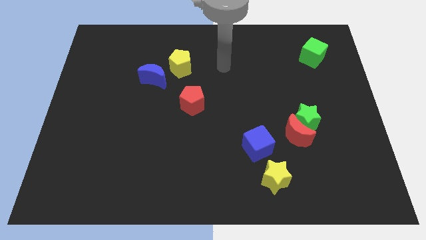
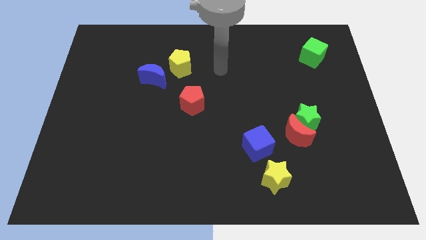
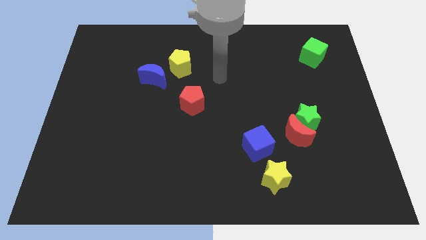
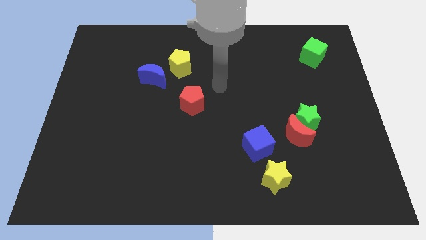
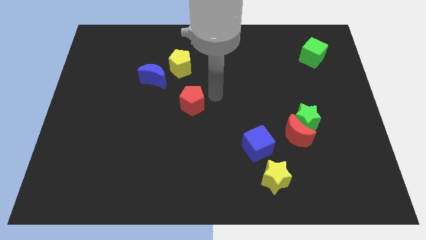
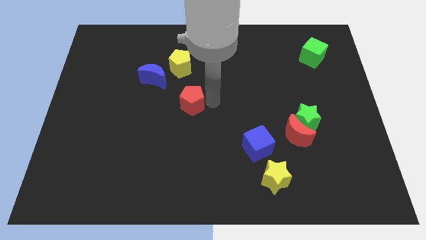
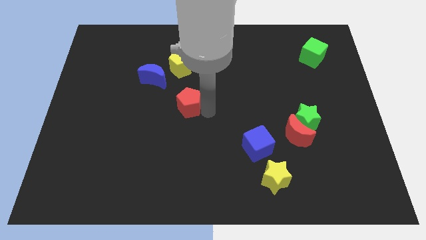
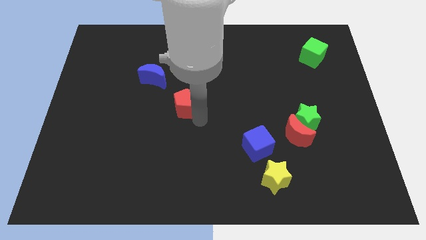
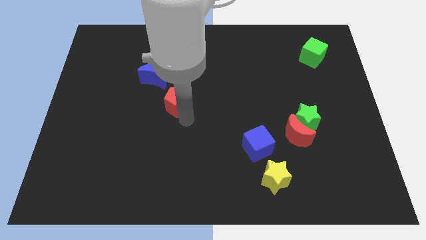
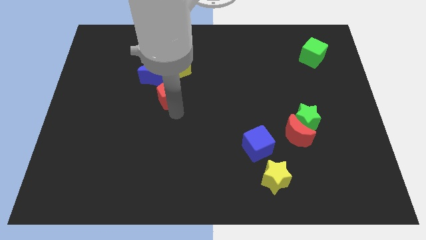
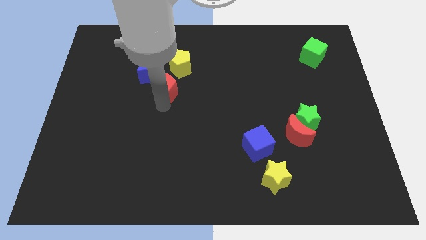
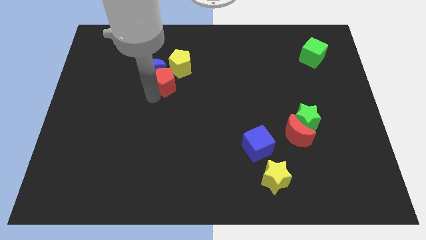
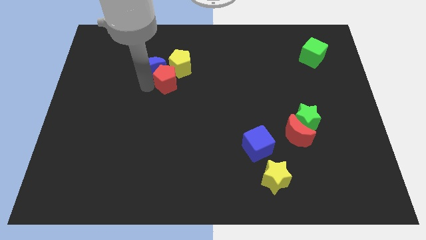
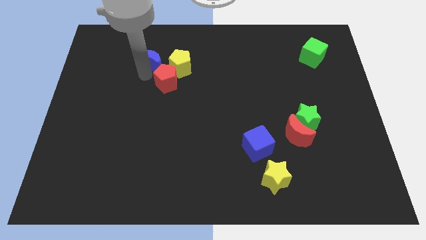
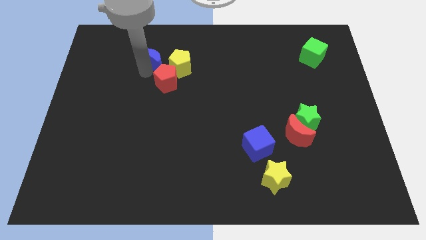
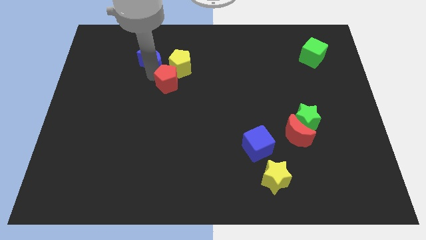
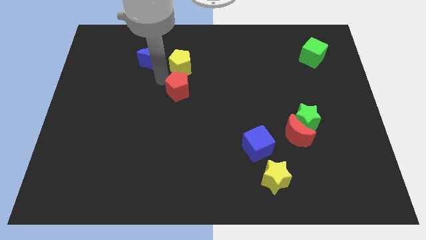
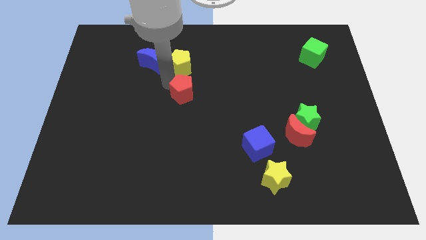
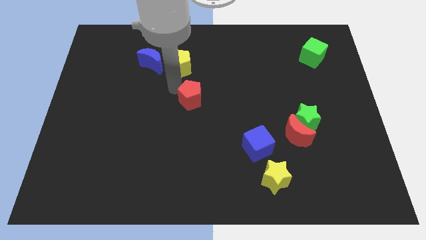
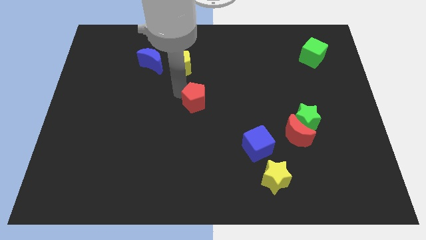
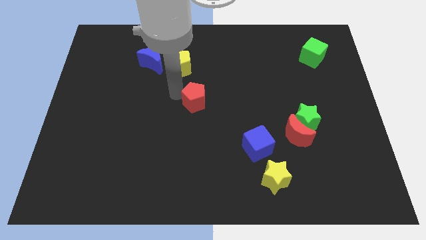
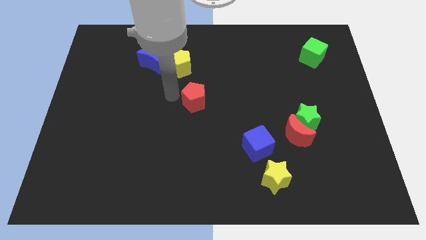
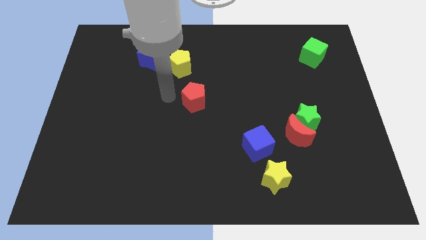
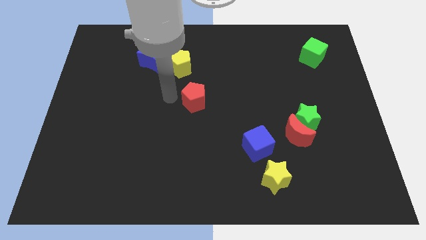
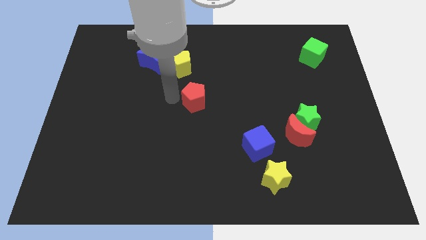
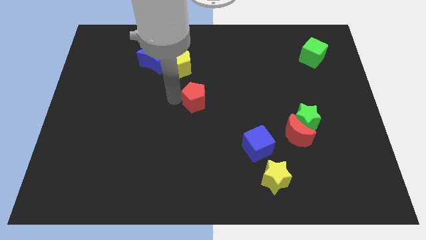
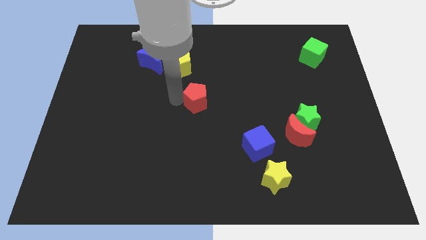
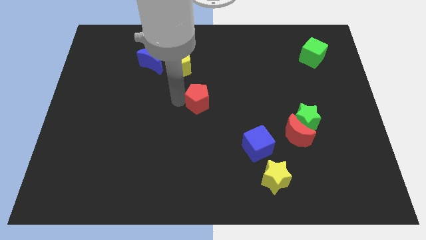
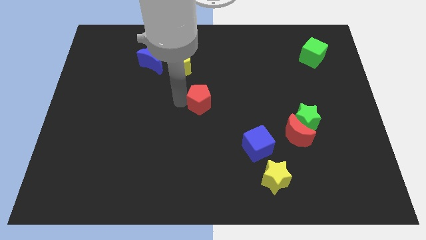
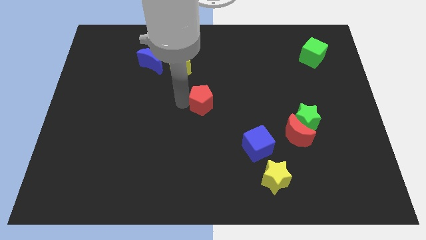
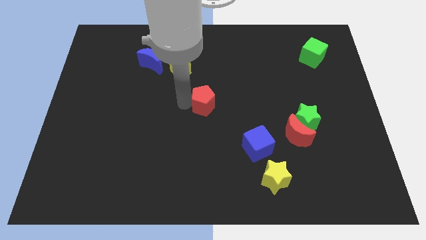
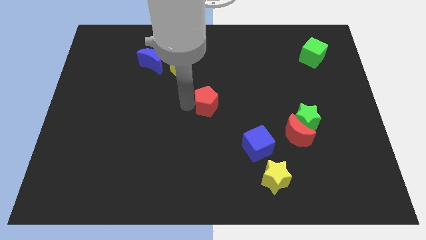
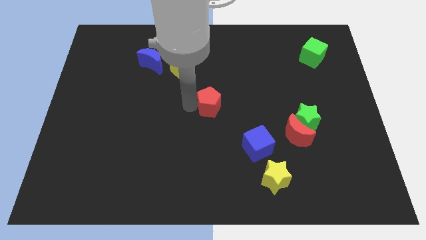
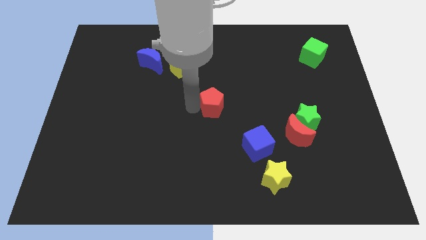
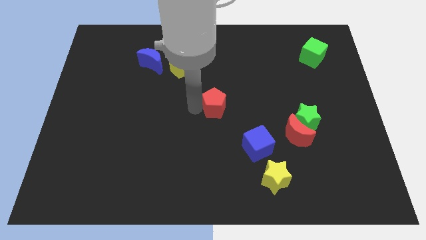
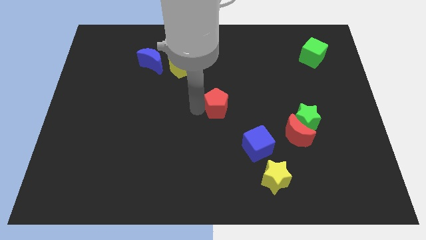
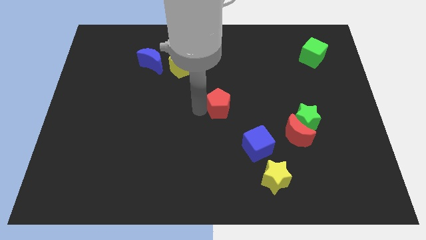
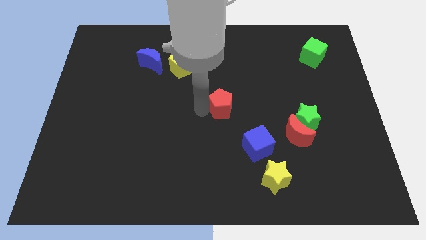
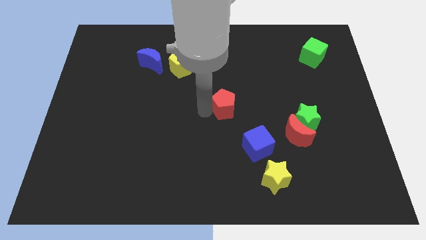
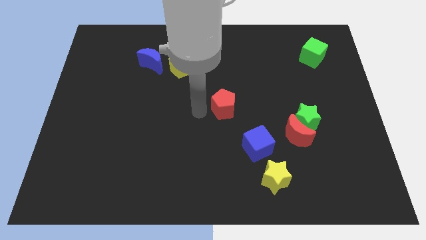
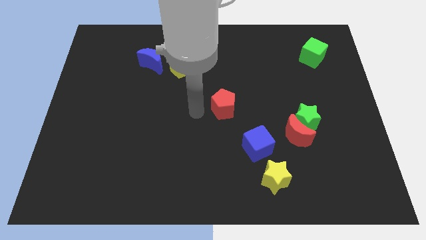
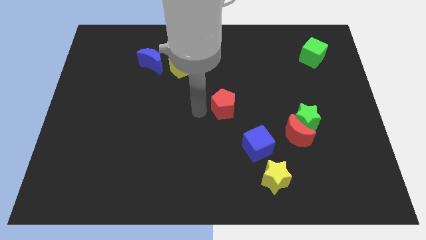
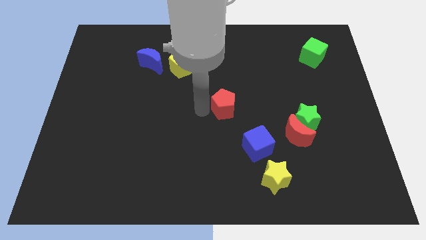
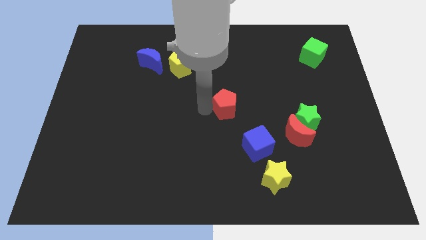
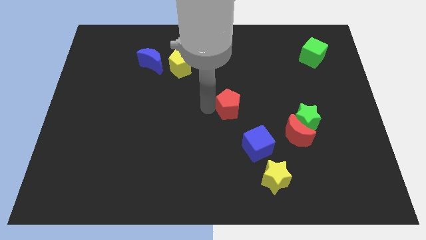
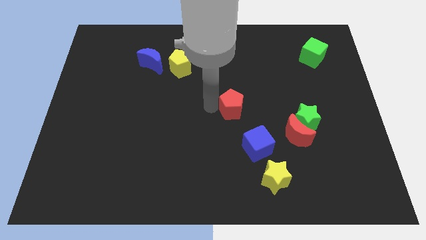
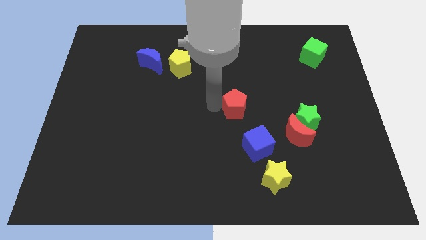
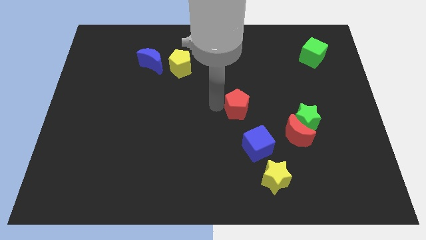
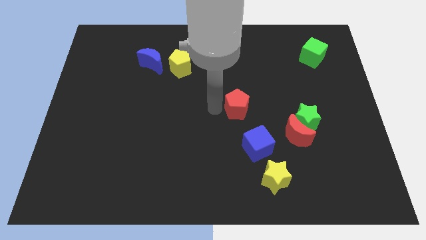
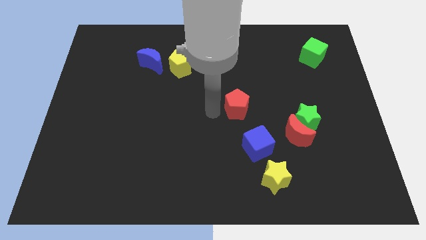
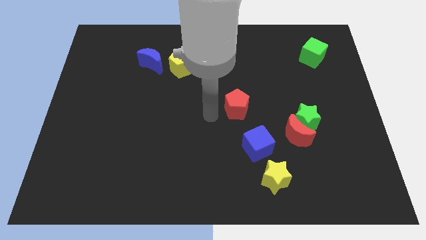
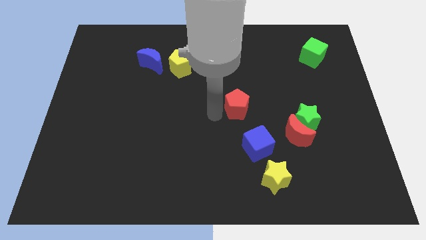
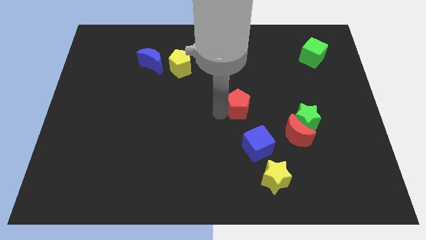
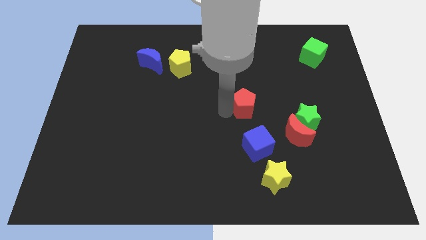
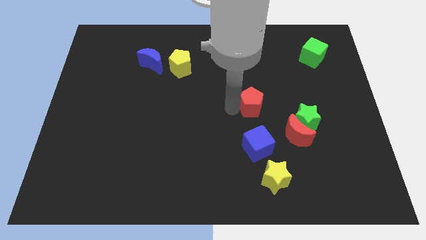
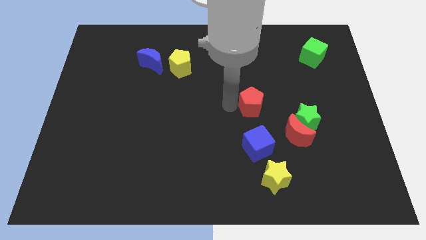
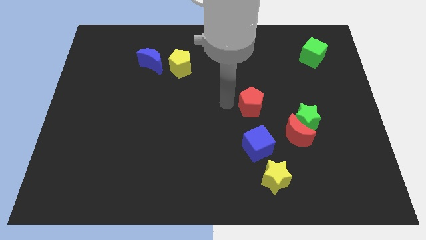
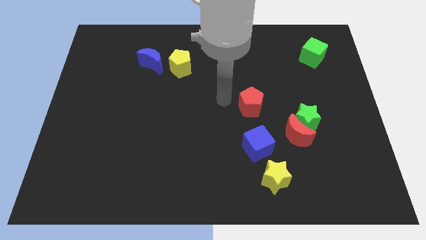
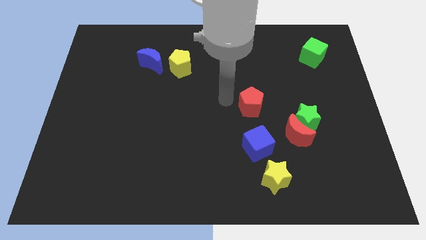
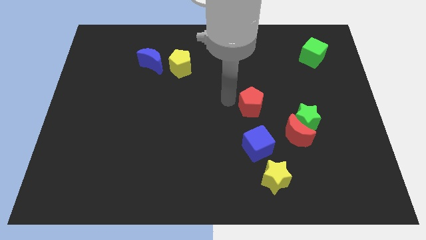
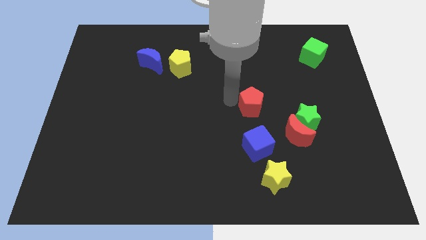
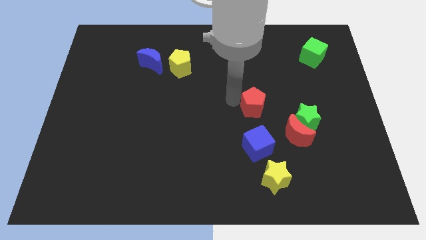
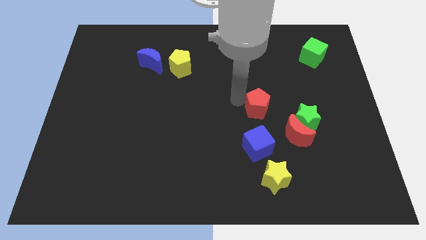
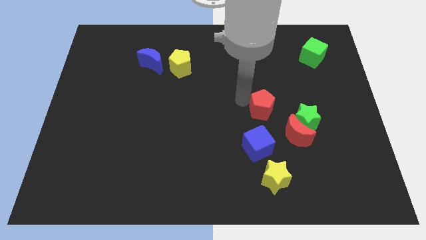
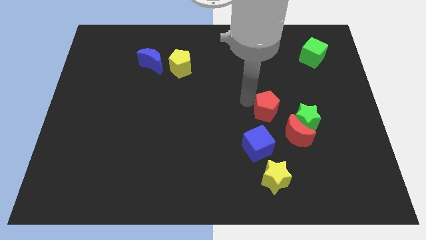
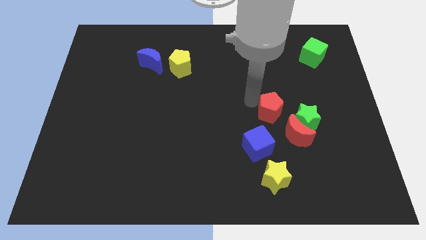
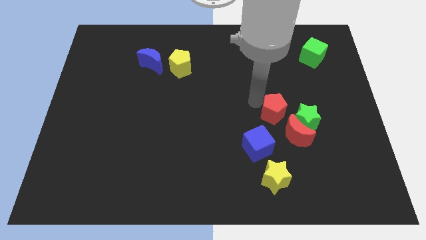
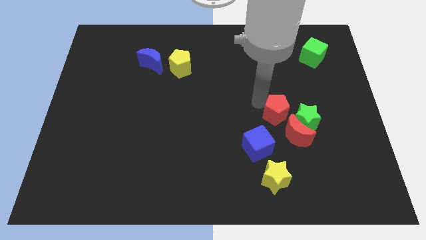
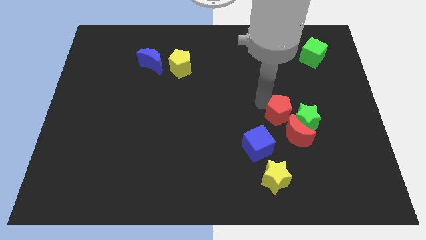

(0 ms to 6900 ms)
move the red pentagon close to the green star
